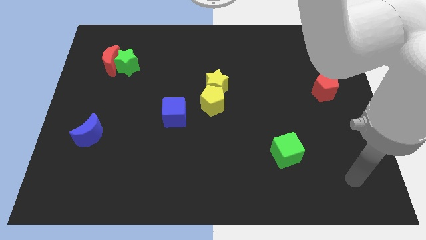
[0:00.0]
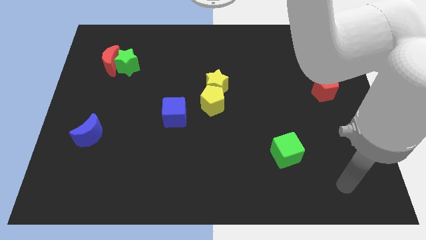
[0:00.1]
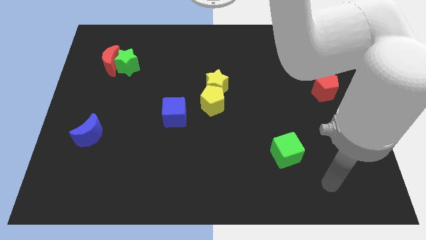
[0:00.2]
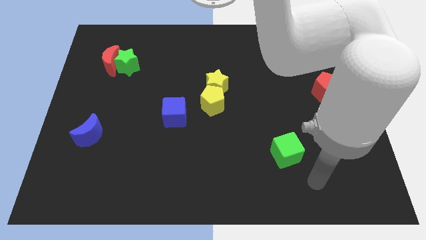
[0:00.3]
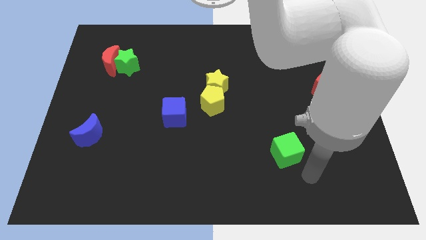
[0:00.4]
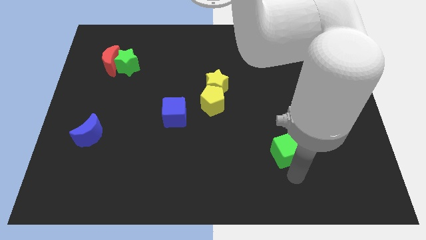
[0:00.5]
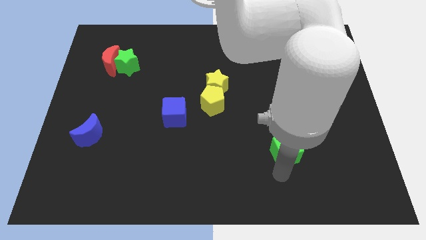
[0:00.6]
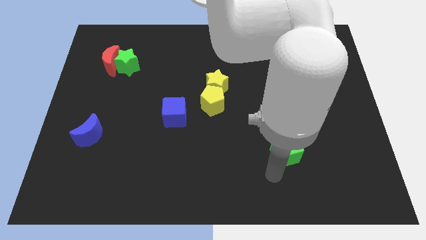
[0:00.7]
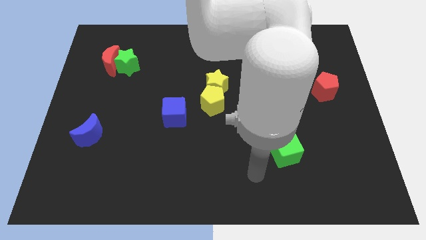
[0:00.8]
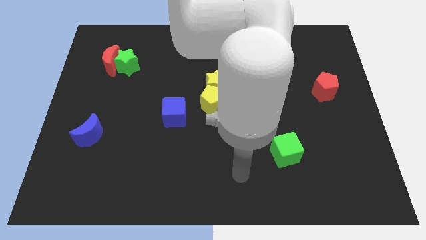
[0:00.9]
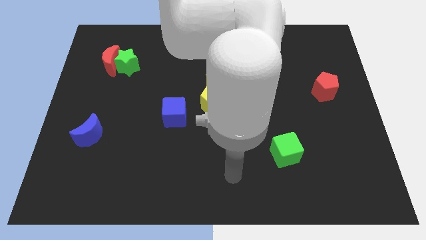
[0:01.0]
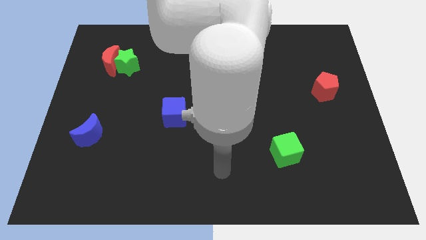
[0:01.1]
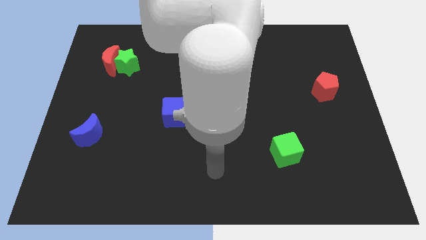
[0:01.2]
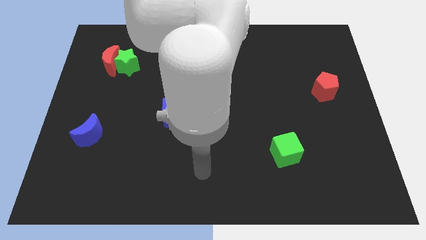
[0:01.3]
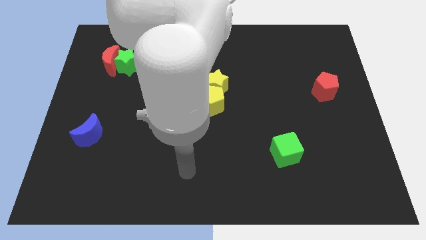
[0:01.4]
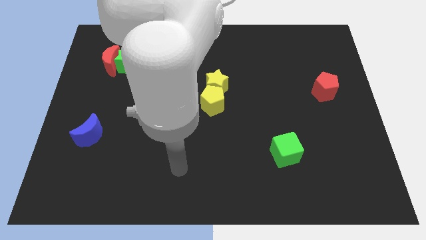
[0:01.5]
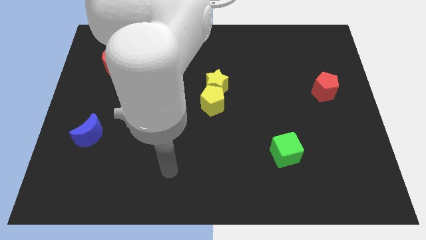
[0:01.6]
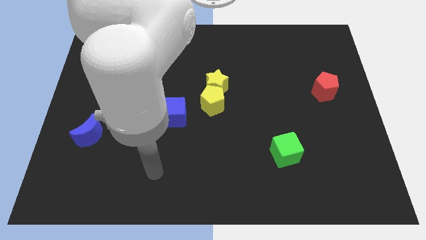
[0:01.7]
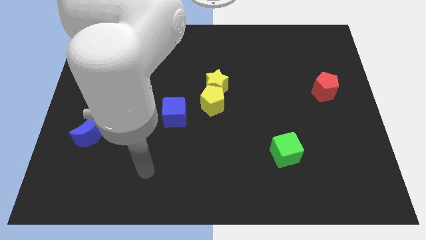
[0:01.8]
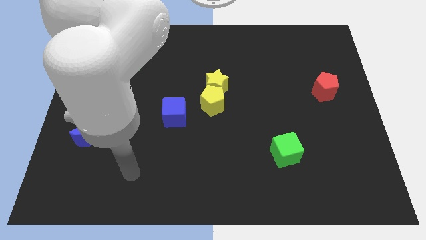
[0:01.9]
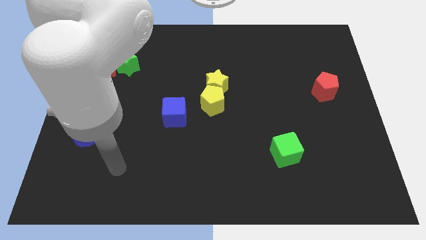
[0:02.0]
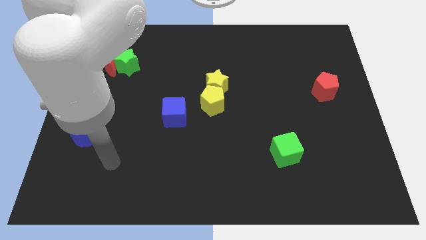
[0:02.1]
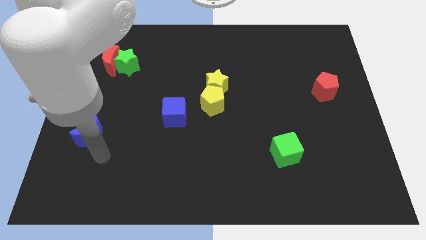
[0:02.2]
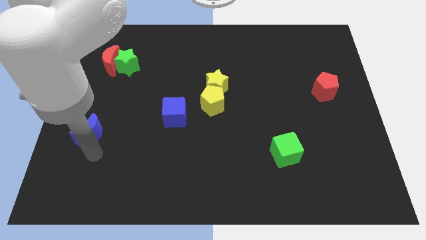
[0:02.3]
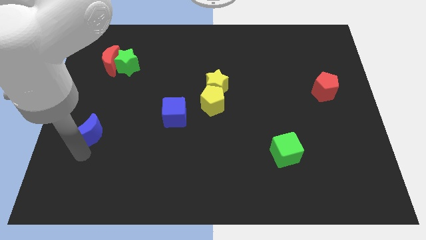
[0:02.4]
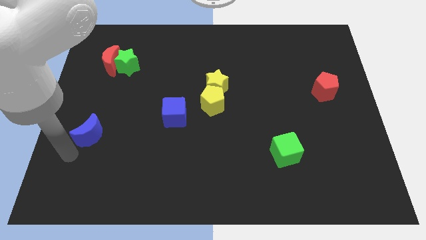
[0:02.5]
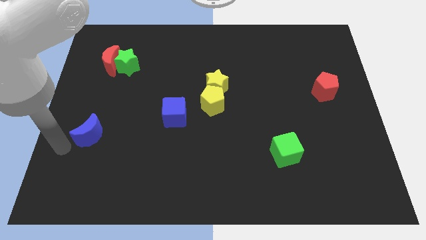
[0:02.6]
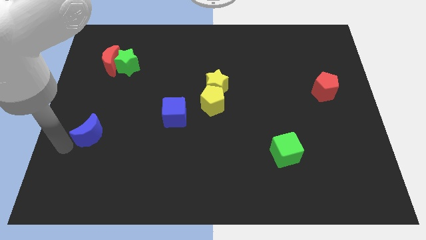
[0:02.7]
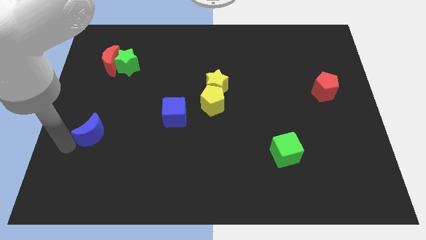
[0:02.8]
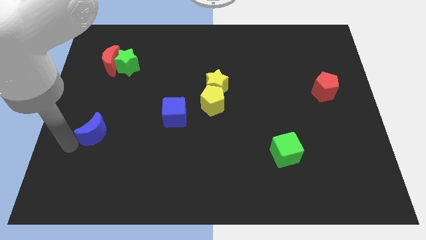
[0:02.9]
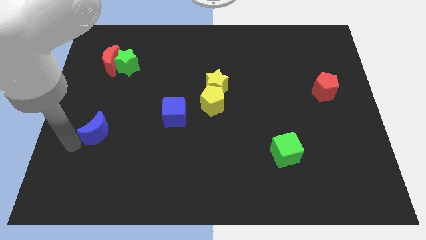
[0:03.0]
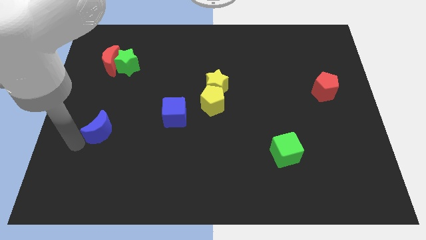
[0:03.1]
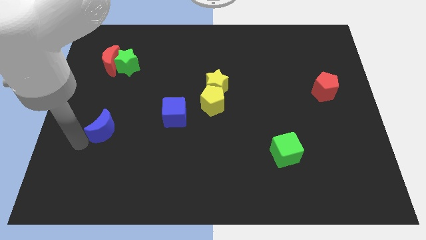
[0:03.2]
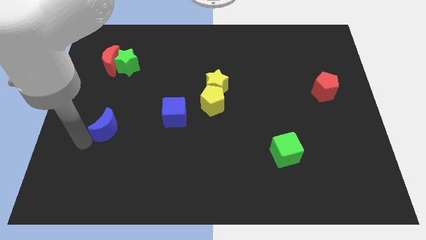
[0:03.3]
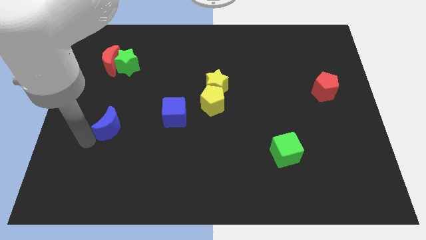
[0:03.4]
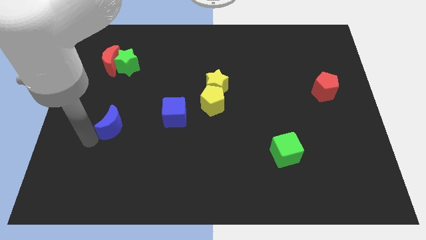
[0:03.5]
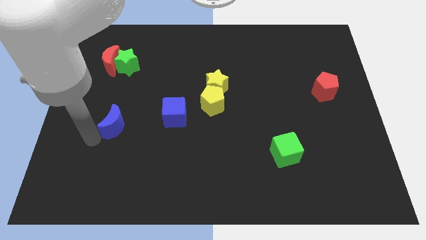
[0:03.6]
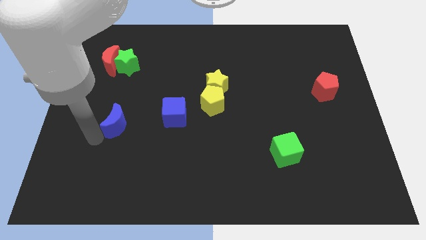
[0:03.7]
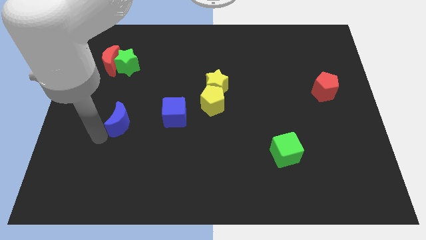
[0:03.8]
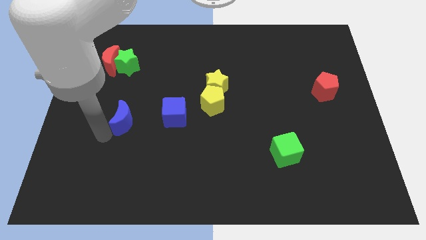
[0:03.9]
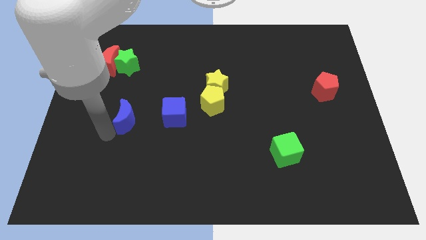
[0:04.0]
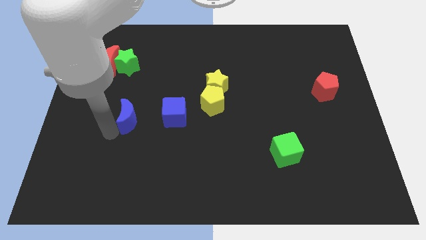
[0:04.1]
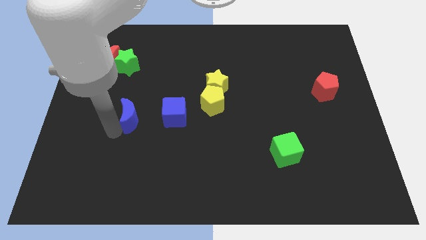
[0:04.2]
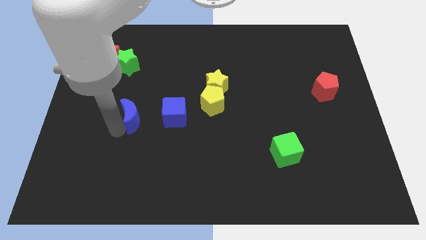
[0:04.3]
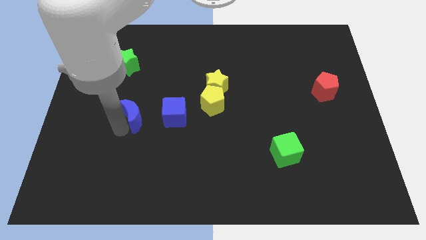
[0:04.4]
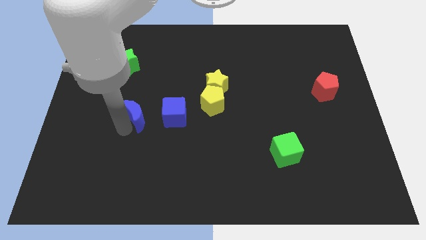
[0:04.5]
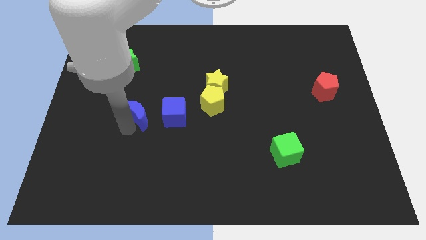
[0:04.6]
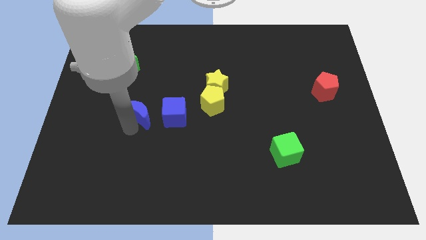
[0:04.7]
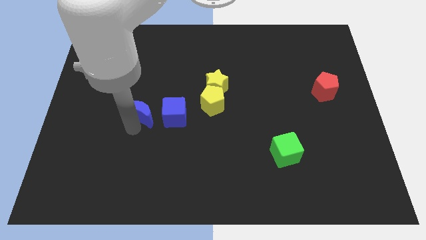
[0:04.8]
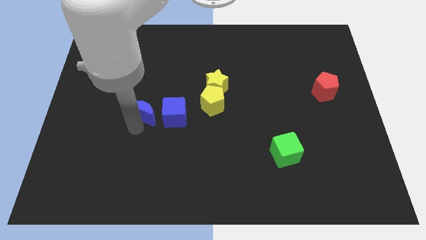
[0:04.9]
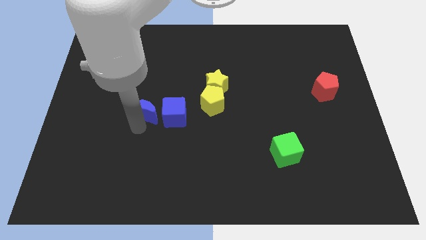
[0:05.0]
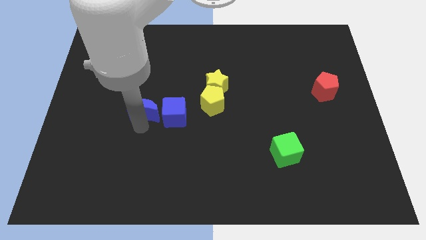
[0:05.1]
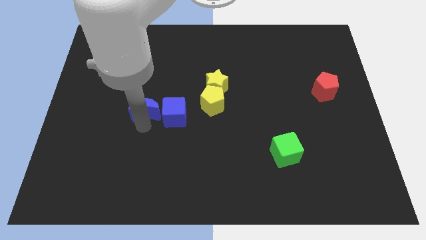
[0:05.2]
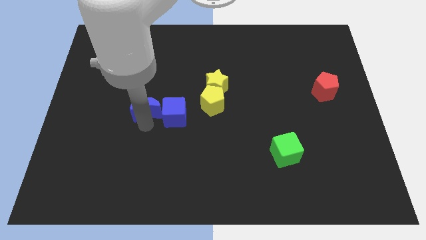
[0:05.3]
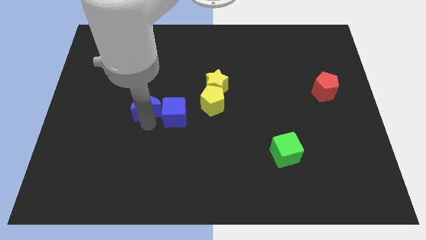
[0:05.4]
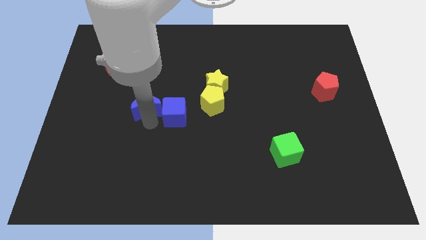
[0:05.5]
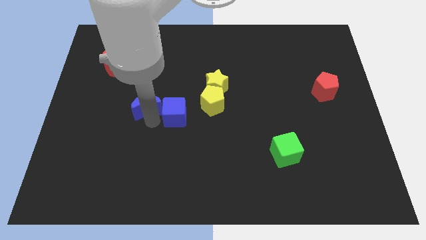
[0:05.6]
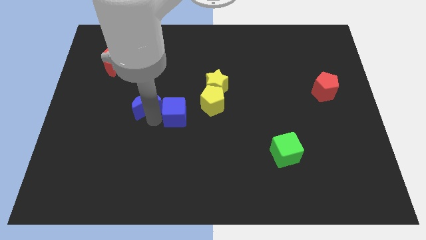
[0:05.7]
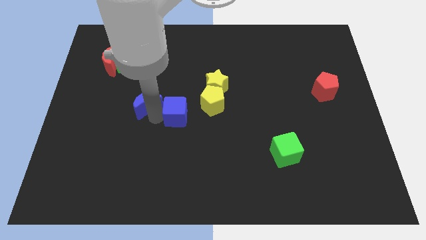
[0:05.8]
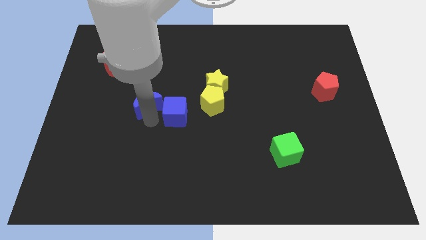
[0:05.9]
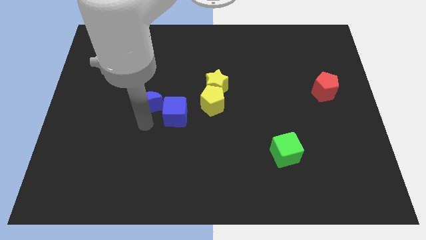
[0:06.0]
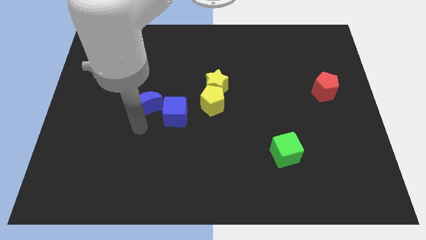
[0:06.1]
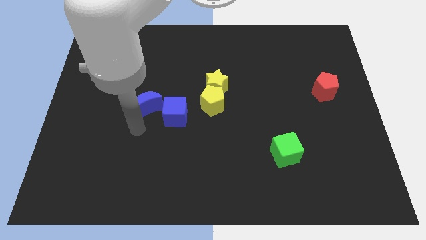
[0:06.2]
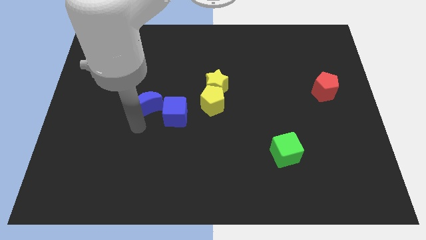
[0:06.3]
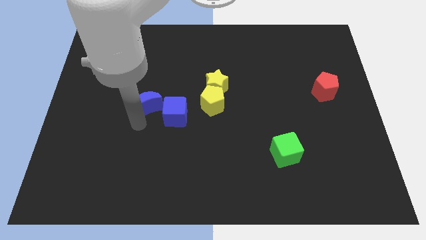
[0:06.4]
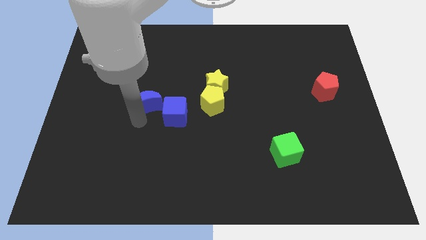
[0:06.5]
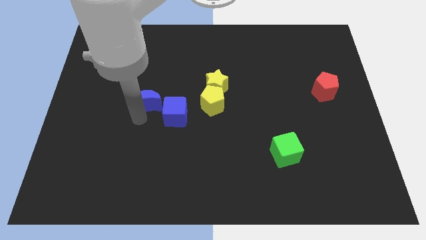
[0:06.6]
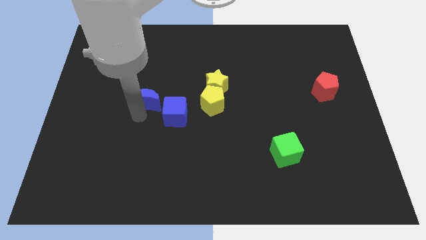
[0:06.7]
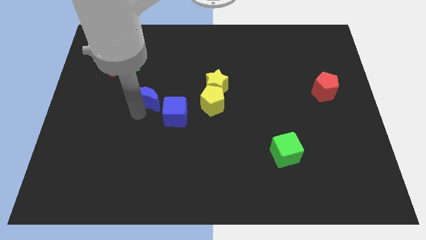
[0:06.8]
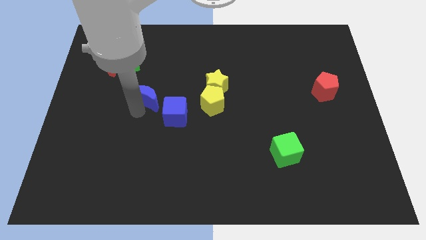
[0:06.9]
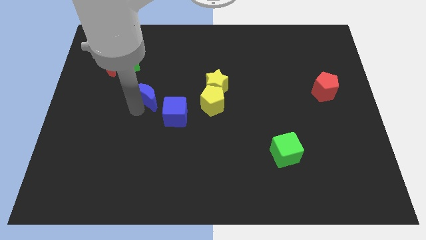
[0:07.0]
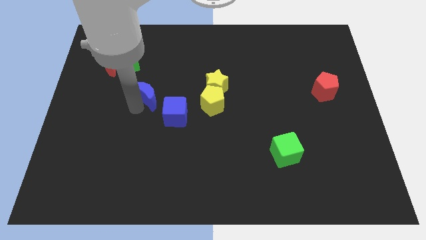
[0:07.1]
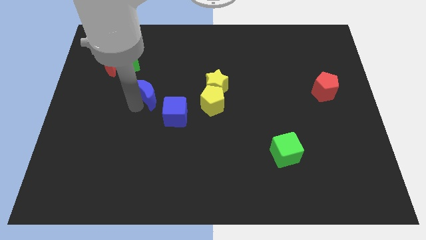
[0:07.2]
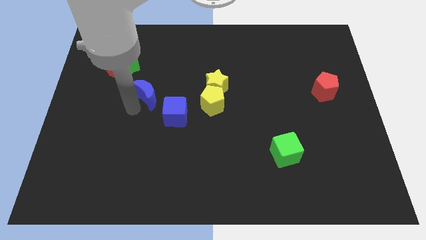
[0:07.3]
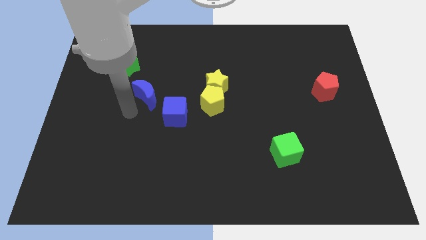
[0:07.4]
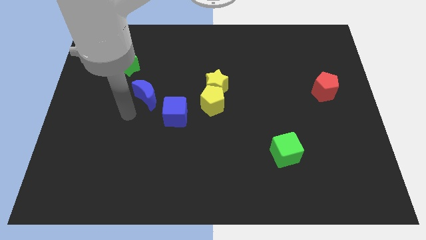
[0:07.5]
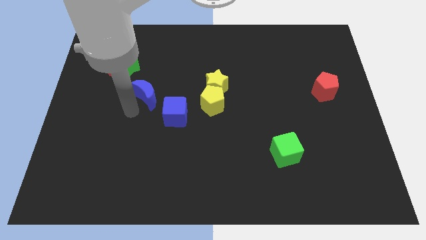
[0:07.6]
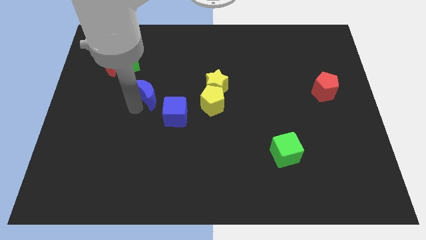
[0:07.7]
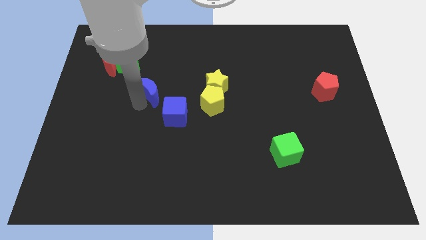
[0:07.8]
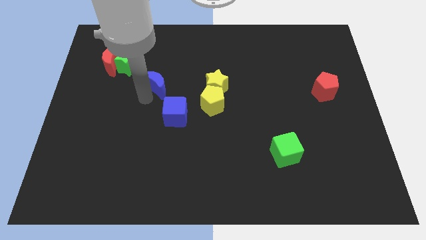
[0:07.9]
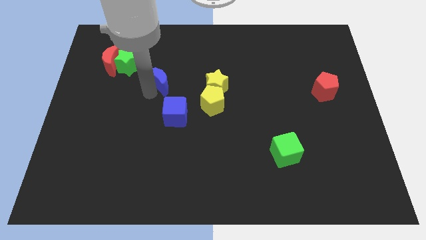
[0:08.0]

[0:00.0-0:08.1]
move the blue moon up and then to the right

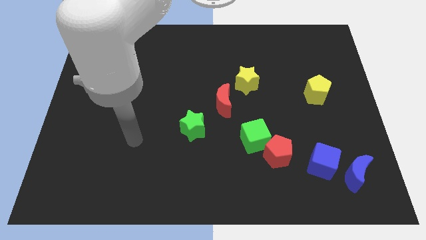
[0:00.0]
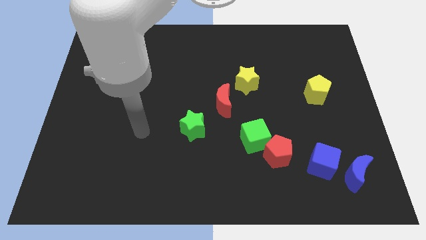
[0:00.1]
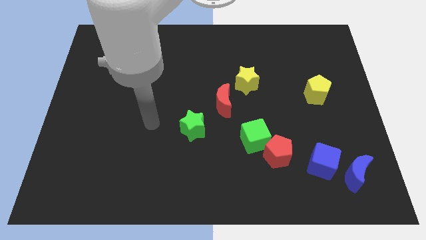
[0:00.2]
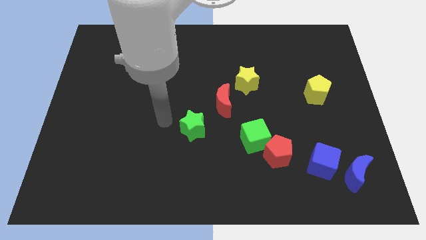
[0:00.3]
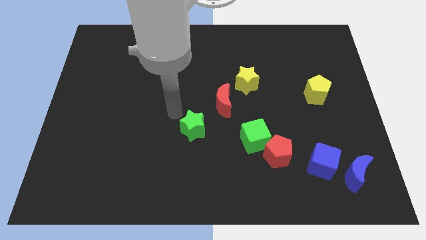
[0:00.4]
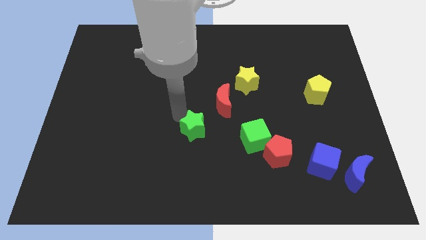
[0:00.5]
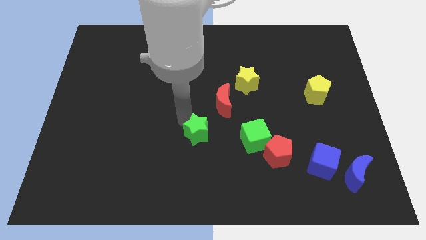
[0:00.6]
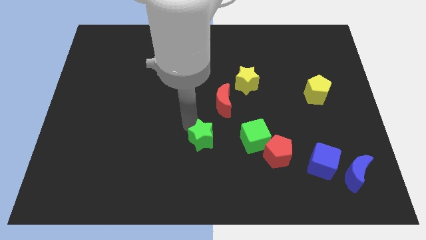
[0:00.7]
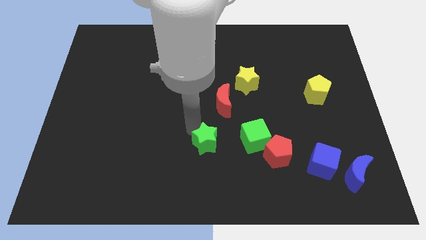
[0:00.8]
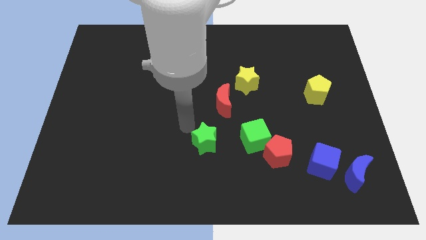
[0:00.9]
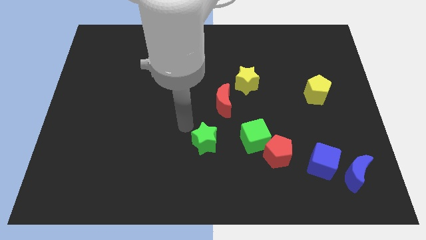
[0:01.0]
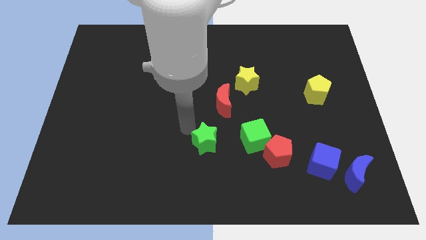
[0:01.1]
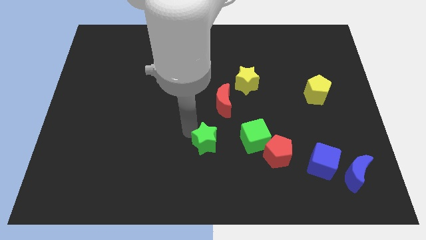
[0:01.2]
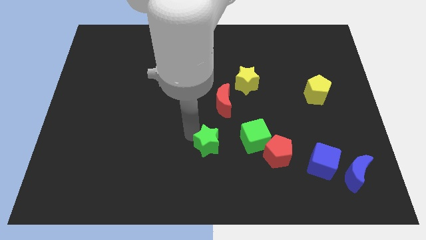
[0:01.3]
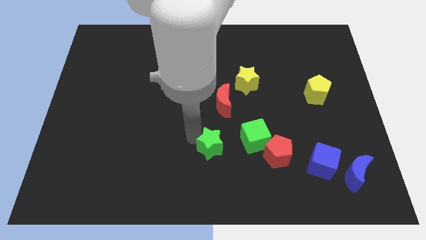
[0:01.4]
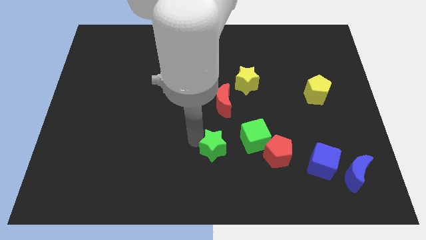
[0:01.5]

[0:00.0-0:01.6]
slide the green star down and right diagonally a little bit
